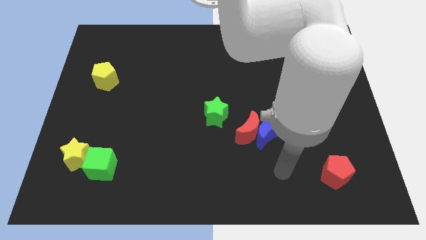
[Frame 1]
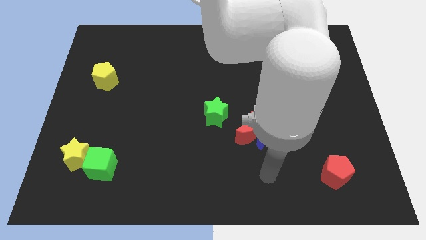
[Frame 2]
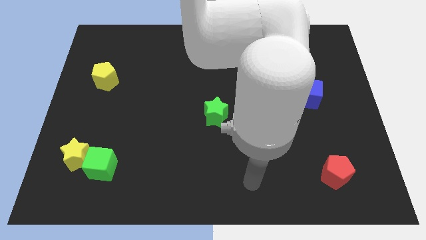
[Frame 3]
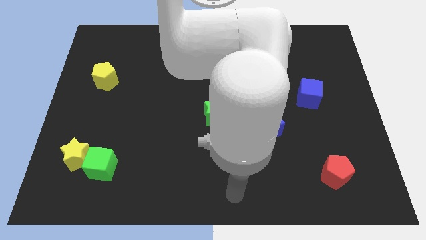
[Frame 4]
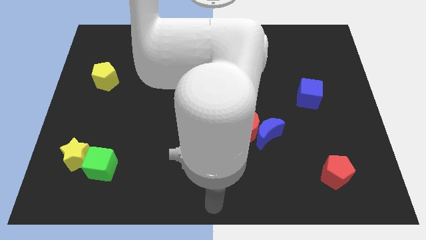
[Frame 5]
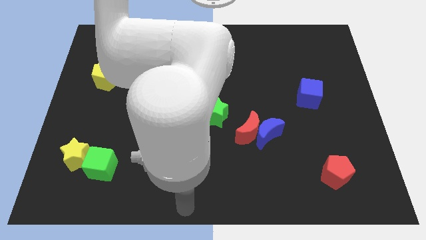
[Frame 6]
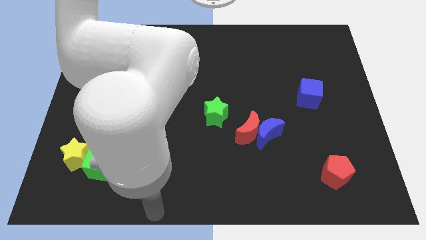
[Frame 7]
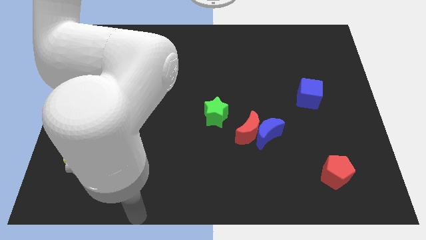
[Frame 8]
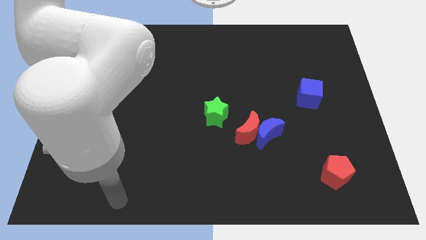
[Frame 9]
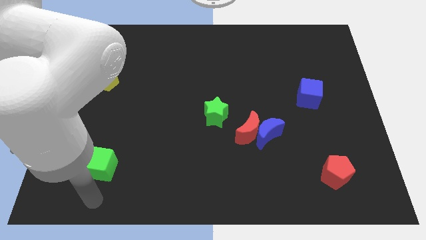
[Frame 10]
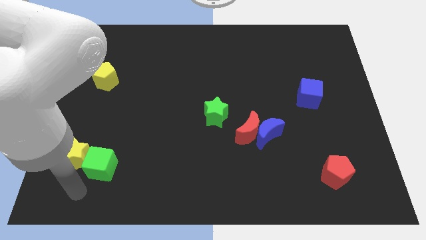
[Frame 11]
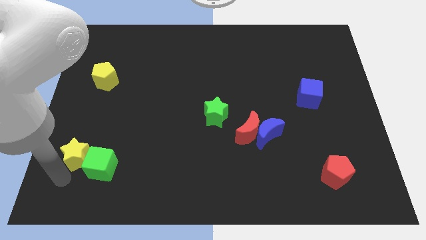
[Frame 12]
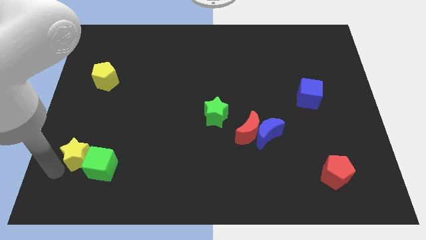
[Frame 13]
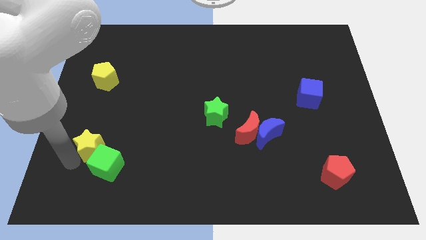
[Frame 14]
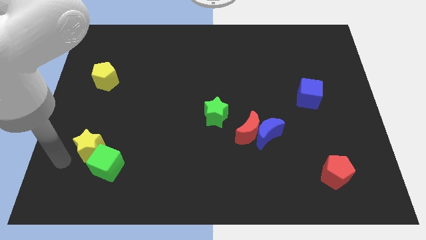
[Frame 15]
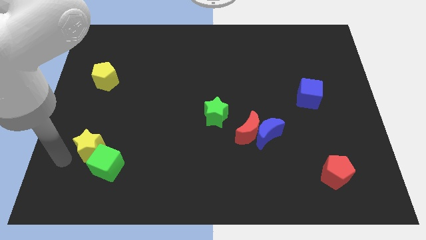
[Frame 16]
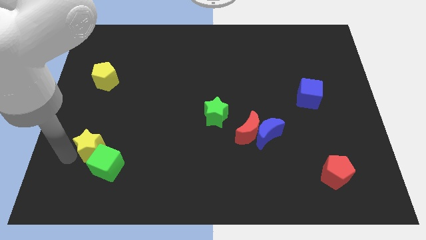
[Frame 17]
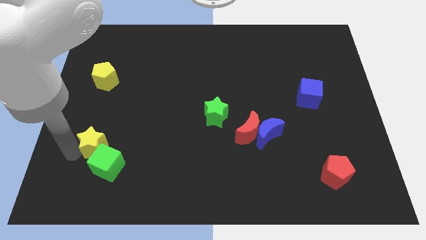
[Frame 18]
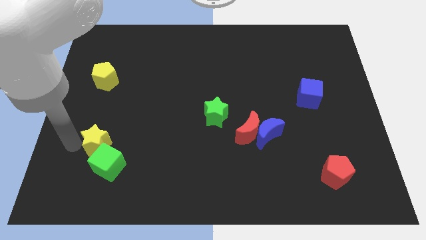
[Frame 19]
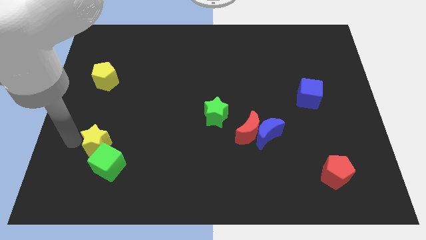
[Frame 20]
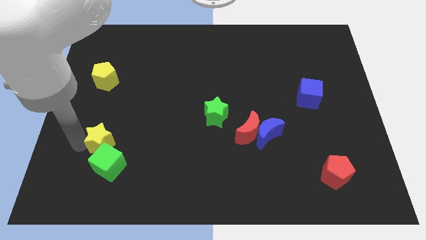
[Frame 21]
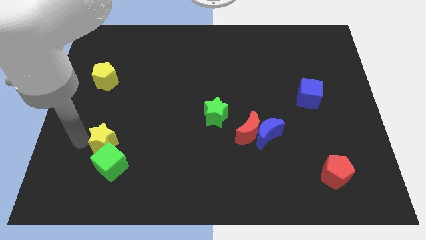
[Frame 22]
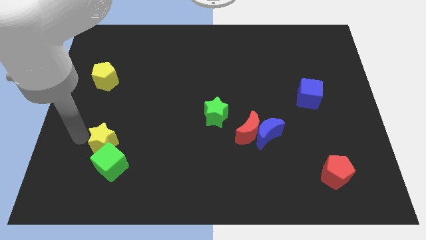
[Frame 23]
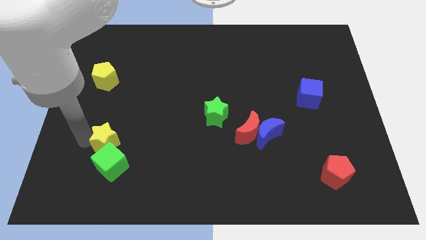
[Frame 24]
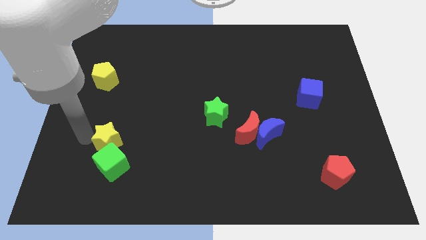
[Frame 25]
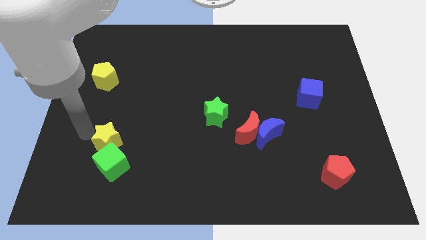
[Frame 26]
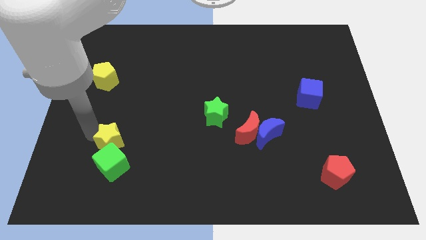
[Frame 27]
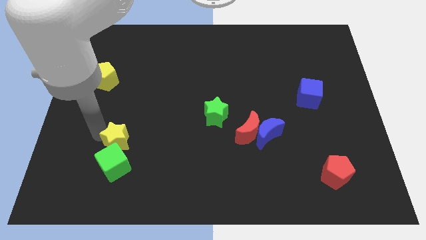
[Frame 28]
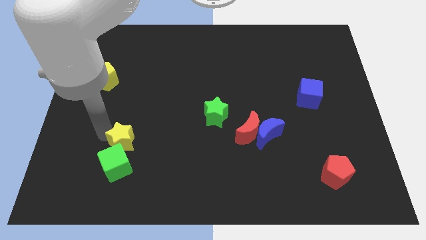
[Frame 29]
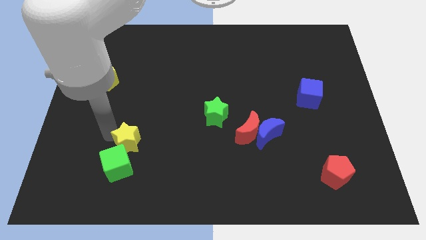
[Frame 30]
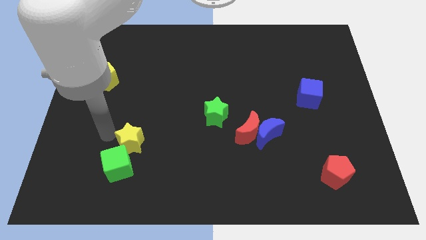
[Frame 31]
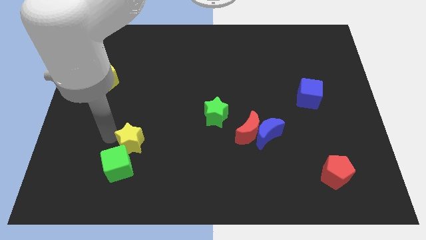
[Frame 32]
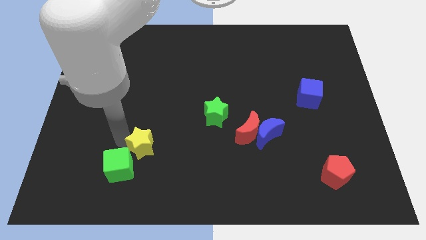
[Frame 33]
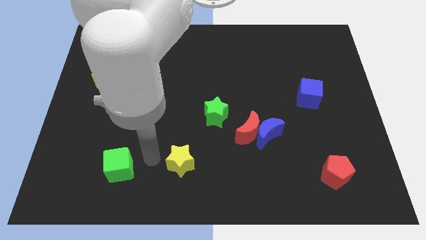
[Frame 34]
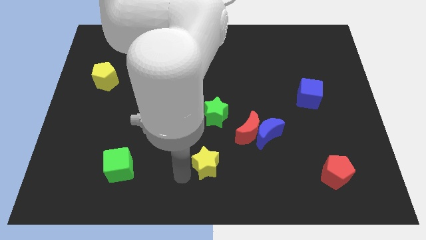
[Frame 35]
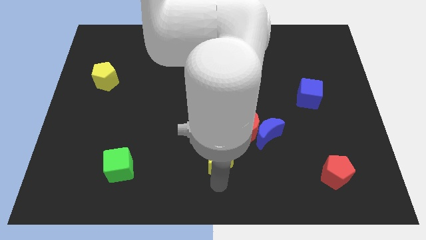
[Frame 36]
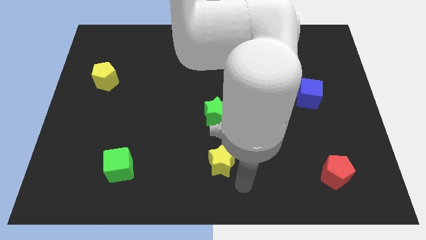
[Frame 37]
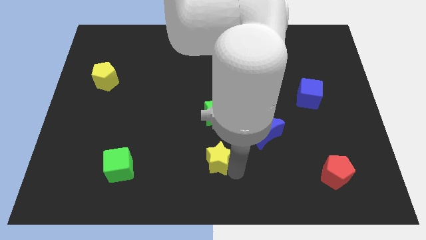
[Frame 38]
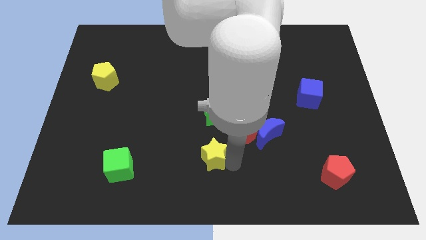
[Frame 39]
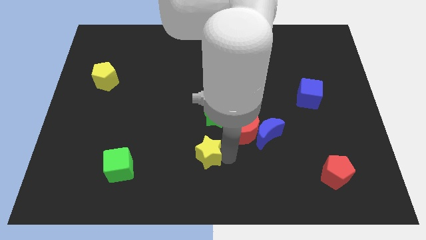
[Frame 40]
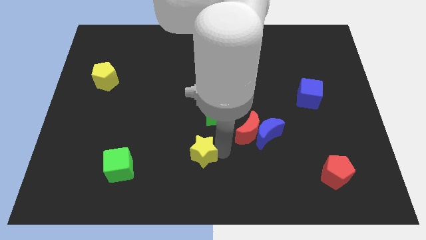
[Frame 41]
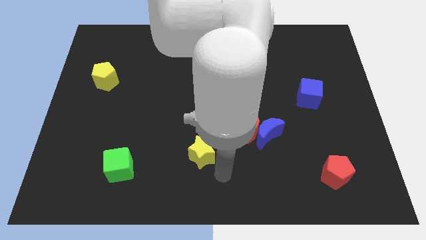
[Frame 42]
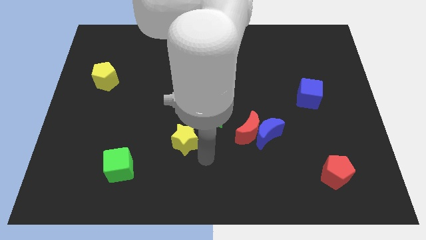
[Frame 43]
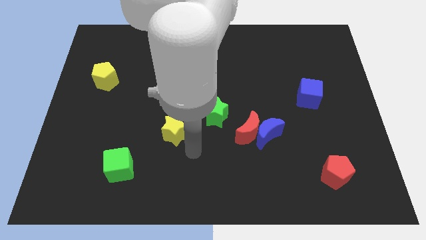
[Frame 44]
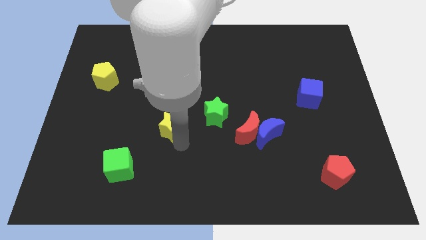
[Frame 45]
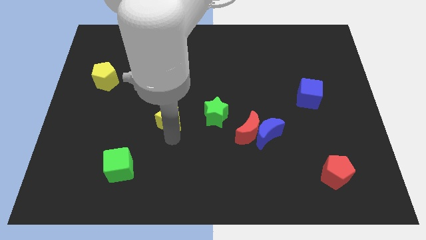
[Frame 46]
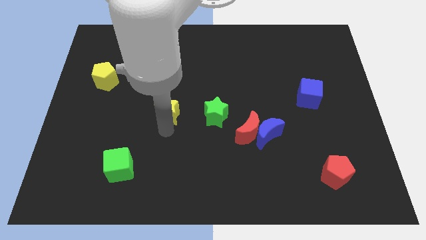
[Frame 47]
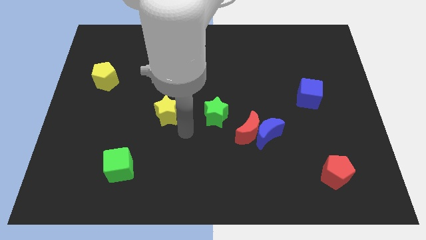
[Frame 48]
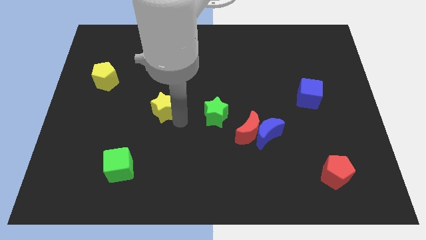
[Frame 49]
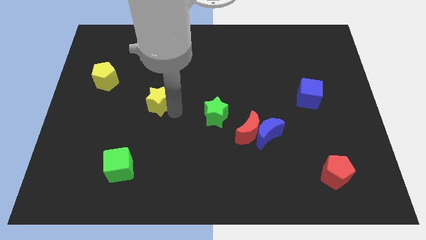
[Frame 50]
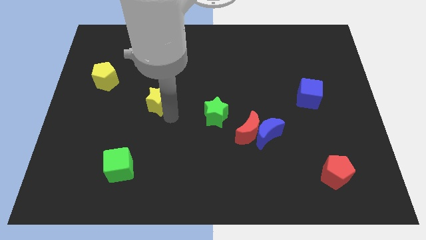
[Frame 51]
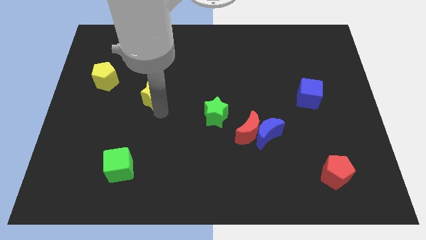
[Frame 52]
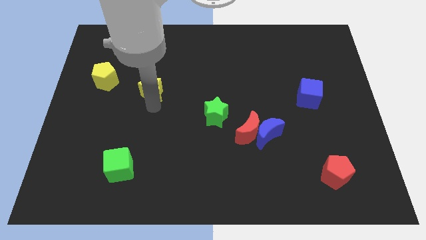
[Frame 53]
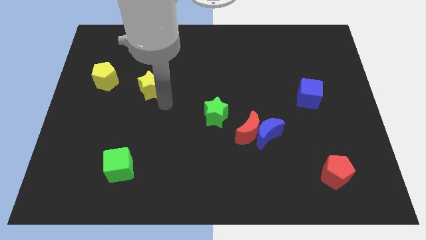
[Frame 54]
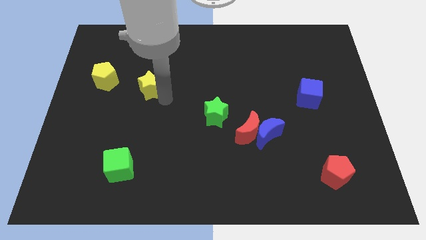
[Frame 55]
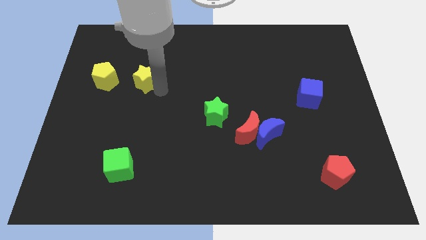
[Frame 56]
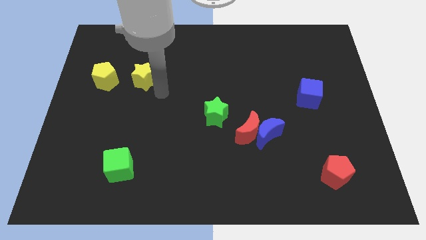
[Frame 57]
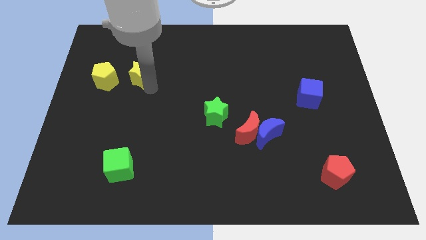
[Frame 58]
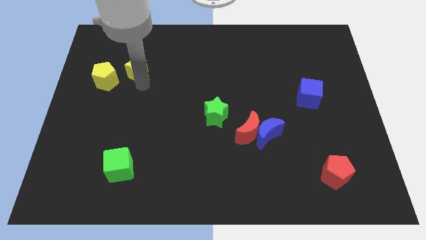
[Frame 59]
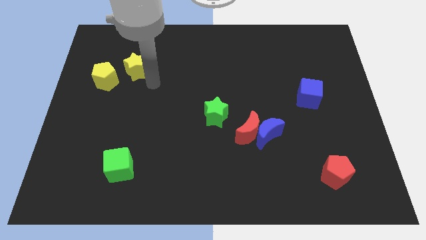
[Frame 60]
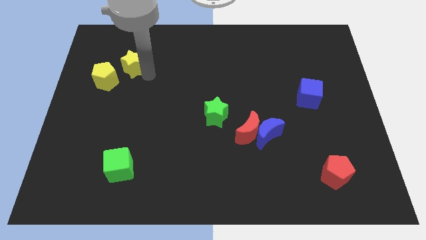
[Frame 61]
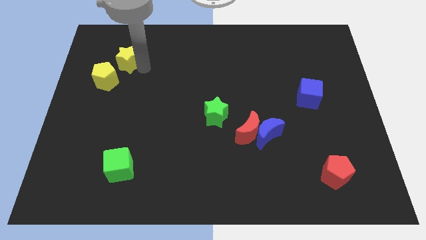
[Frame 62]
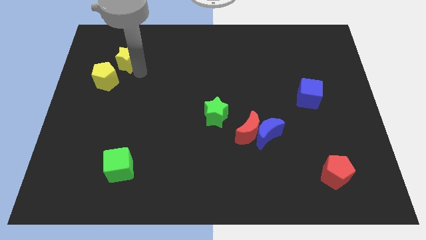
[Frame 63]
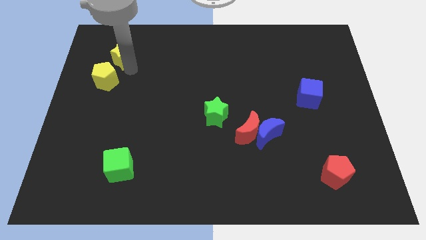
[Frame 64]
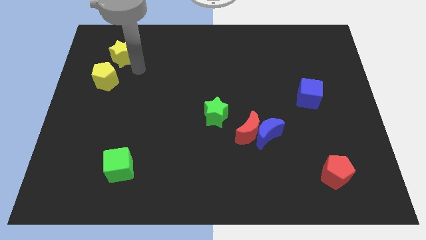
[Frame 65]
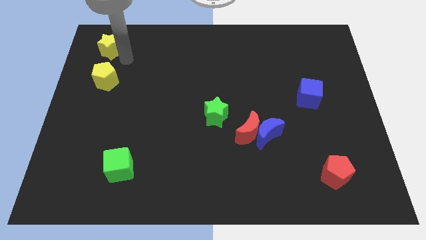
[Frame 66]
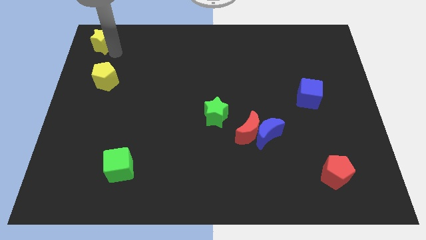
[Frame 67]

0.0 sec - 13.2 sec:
push the yellow star to the top left corner

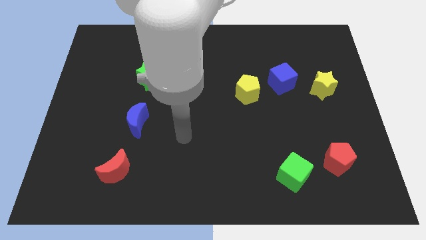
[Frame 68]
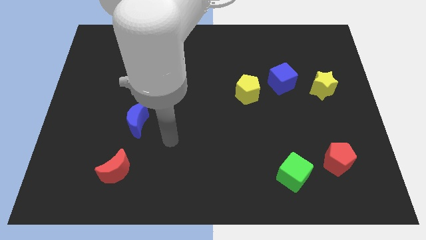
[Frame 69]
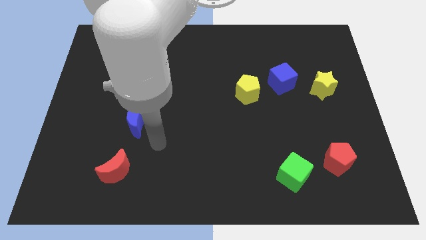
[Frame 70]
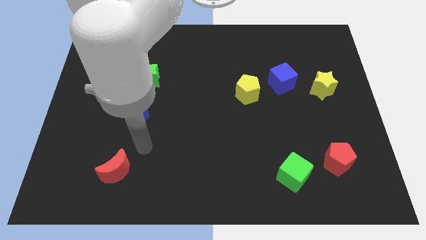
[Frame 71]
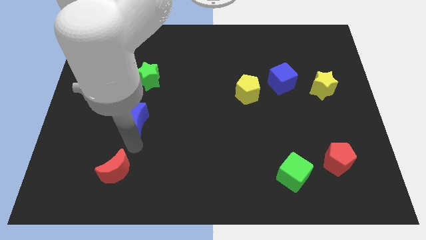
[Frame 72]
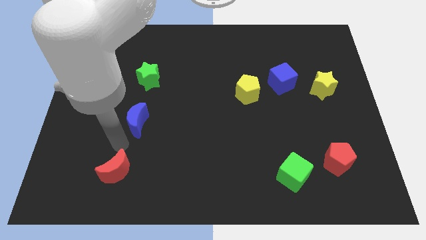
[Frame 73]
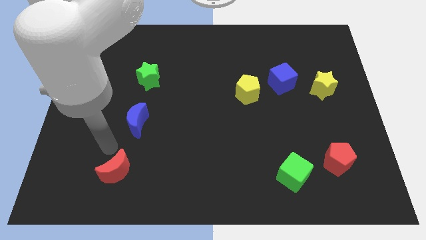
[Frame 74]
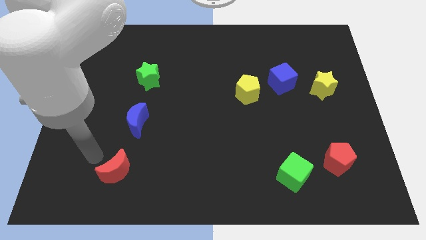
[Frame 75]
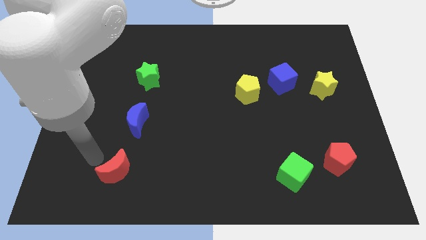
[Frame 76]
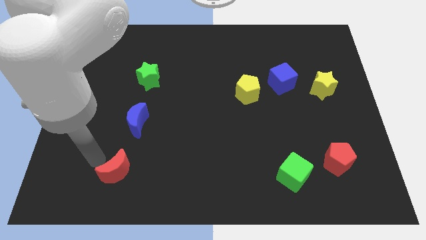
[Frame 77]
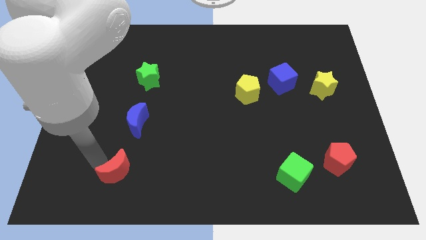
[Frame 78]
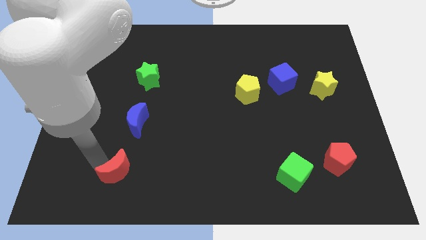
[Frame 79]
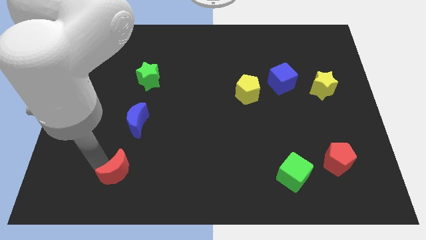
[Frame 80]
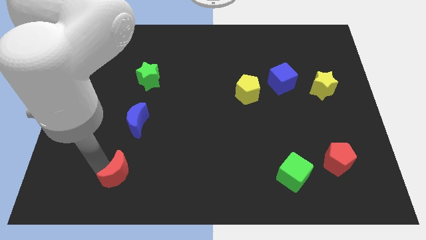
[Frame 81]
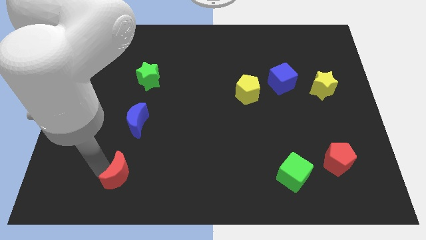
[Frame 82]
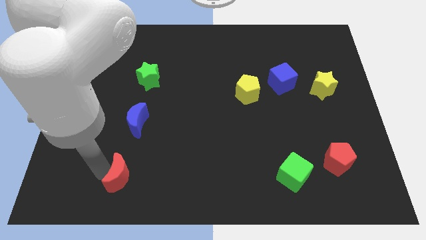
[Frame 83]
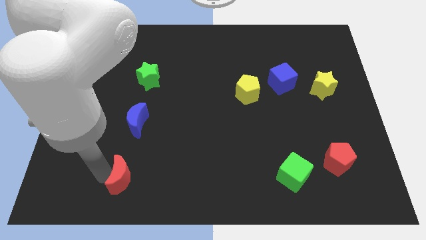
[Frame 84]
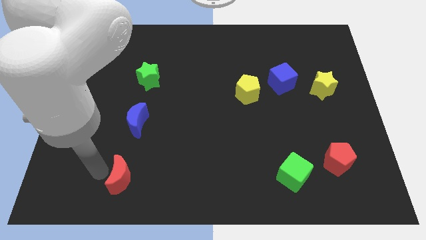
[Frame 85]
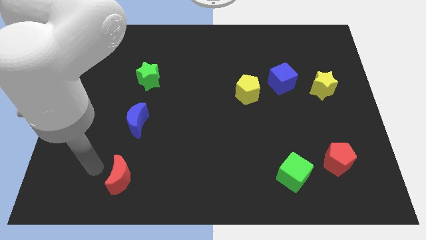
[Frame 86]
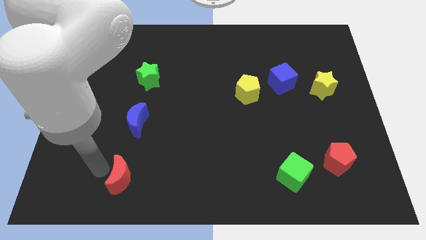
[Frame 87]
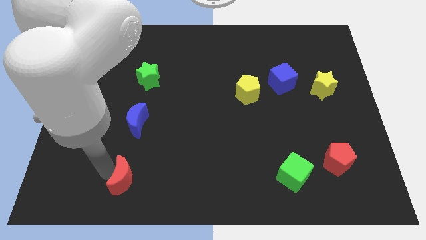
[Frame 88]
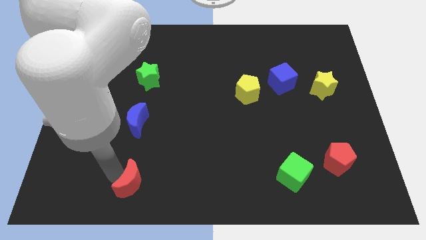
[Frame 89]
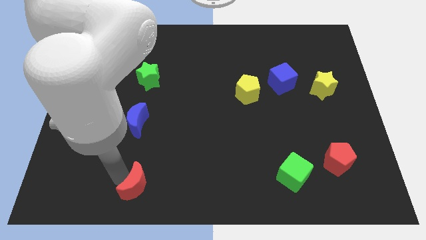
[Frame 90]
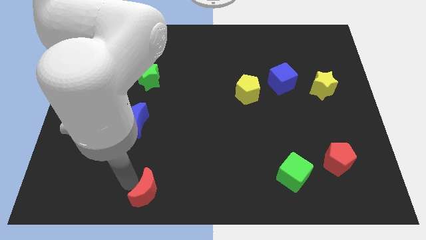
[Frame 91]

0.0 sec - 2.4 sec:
slide the red moon to the bottom
